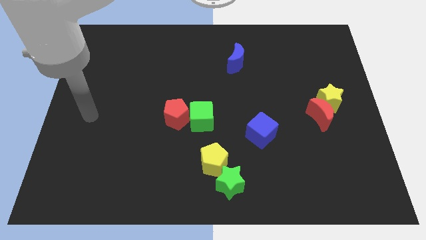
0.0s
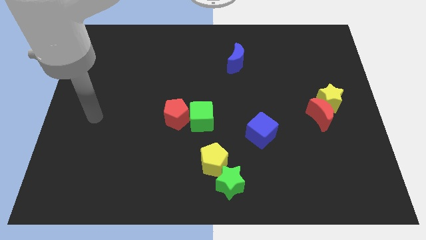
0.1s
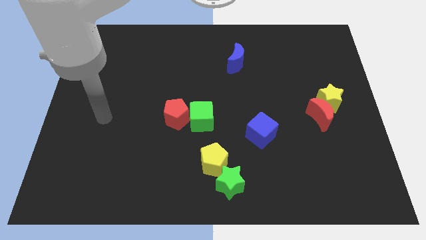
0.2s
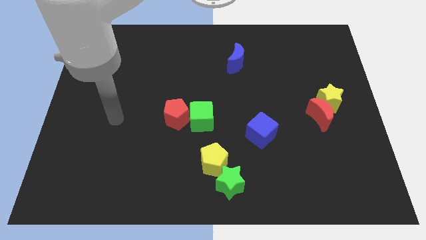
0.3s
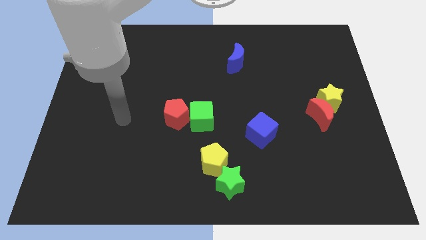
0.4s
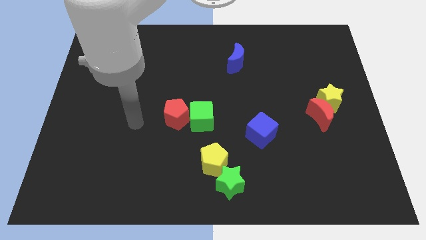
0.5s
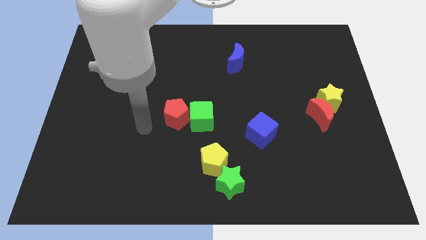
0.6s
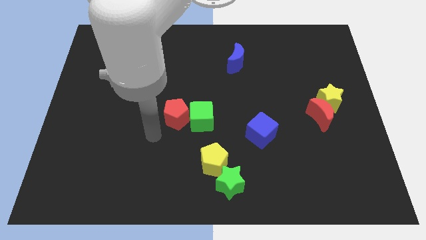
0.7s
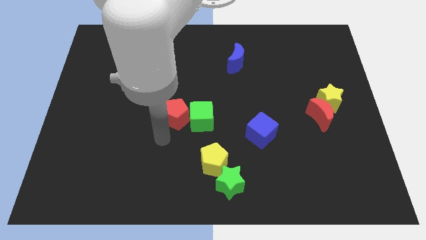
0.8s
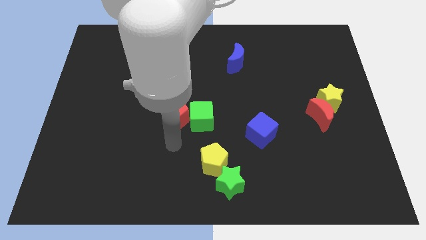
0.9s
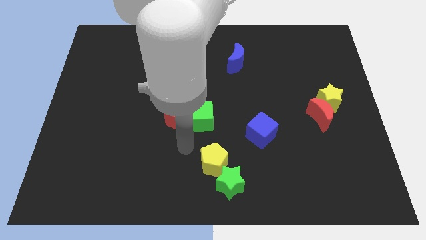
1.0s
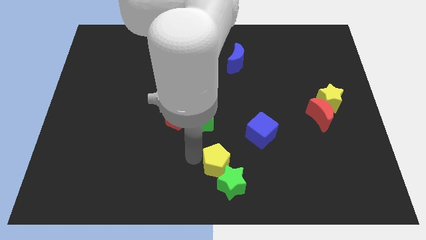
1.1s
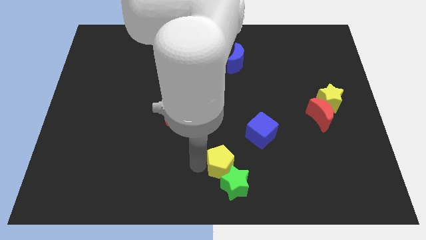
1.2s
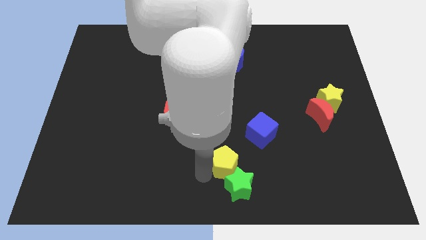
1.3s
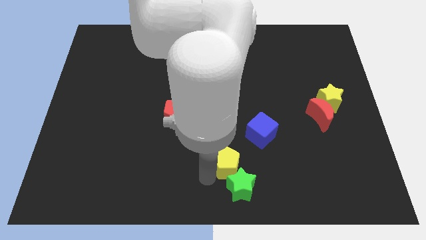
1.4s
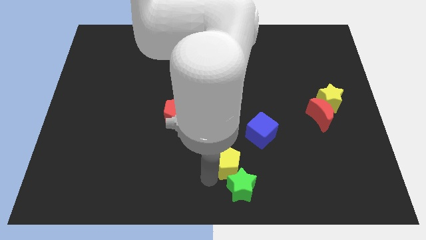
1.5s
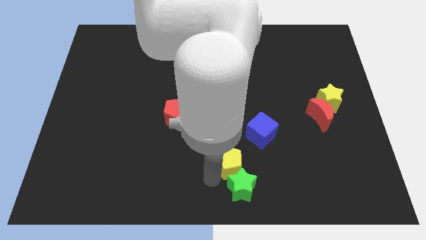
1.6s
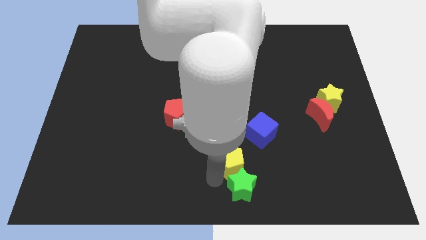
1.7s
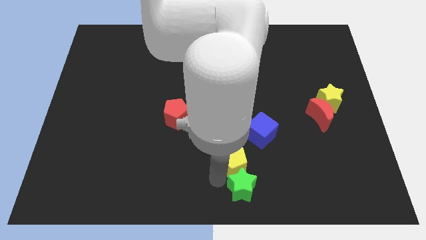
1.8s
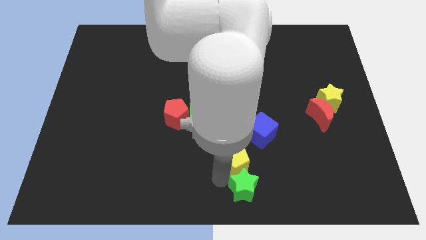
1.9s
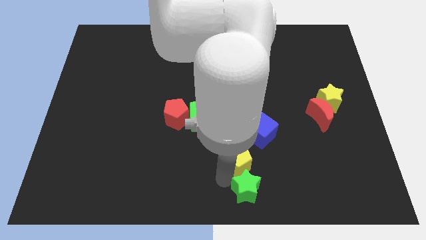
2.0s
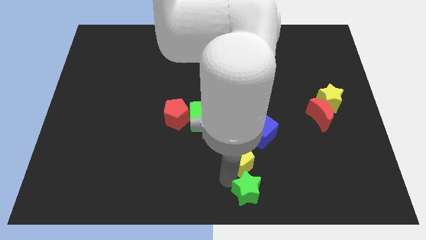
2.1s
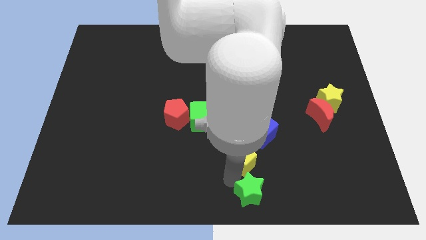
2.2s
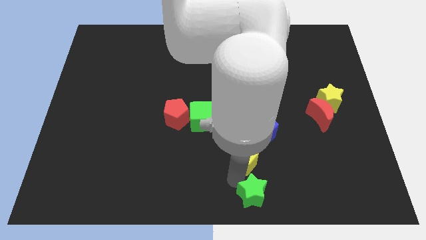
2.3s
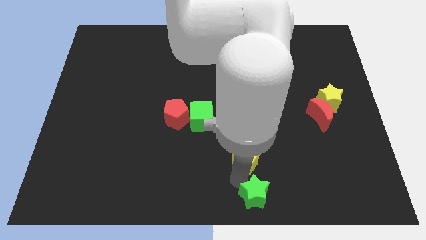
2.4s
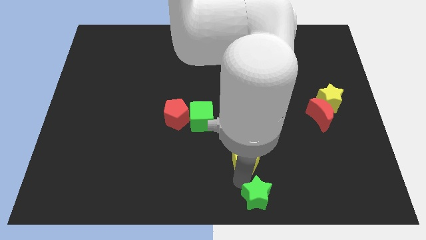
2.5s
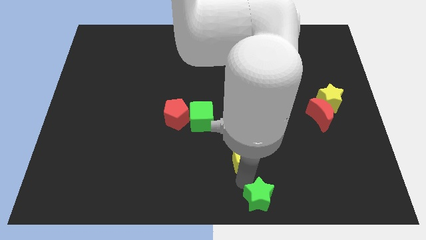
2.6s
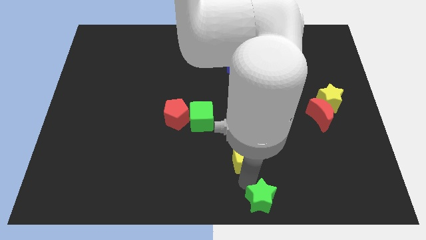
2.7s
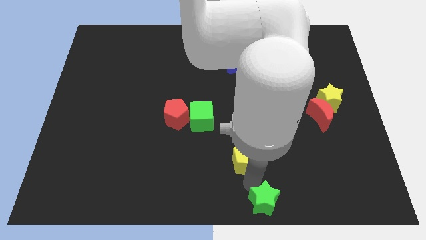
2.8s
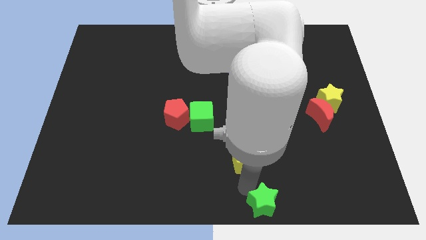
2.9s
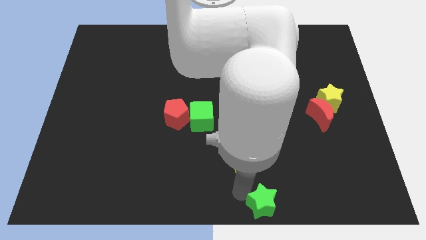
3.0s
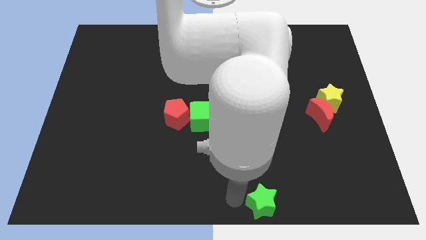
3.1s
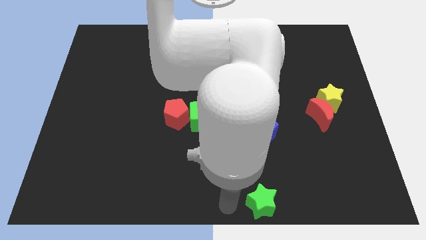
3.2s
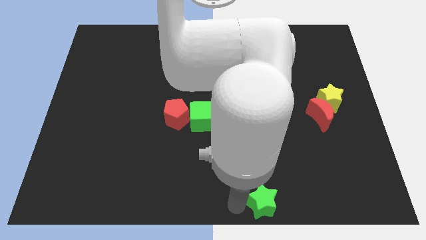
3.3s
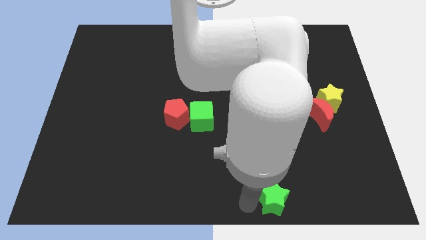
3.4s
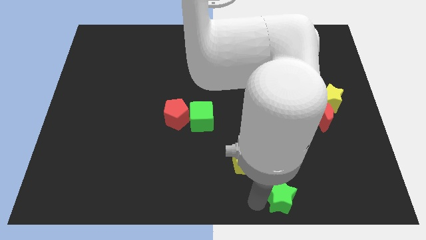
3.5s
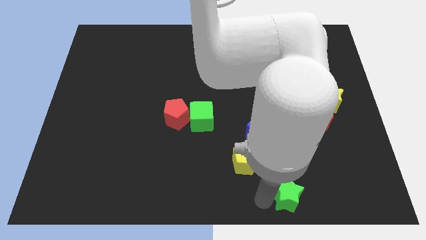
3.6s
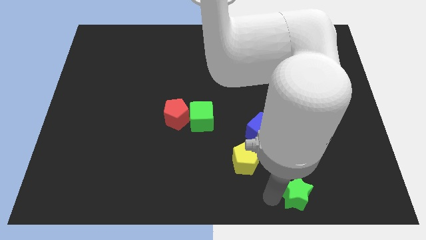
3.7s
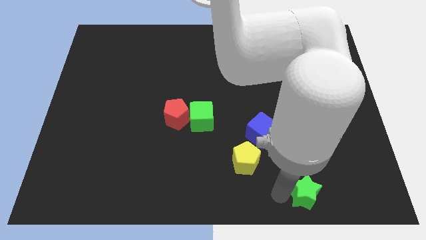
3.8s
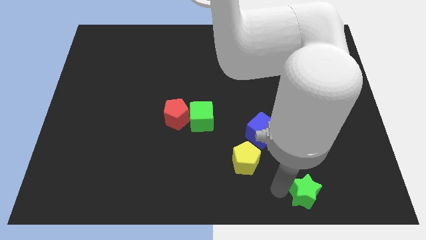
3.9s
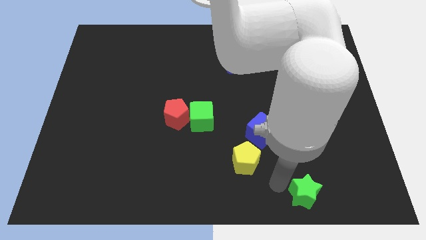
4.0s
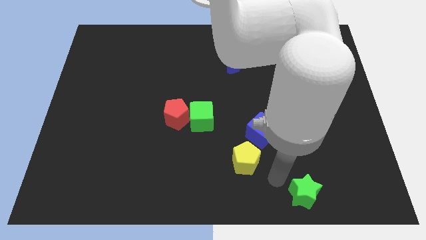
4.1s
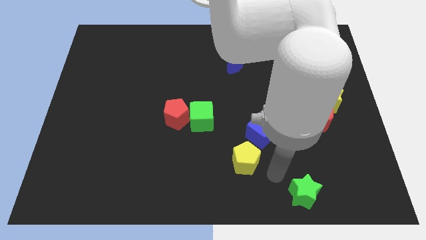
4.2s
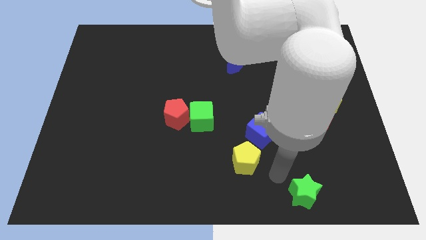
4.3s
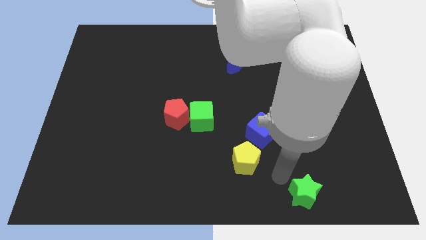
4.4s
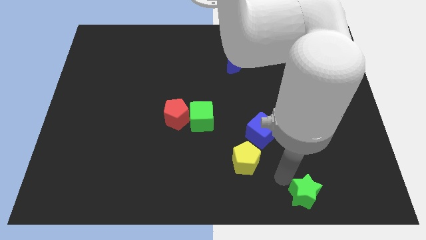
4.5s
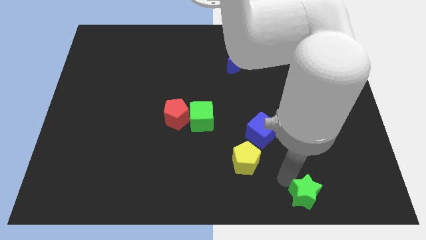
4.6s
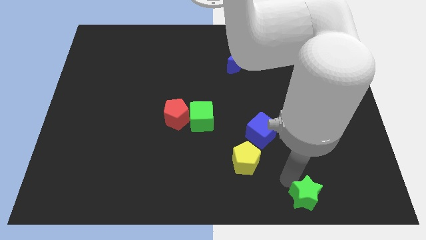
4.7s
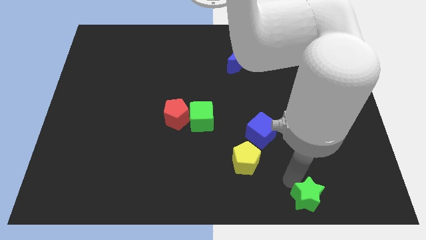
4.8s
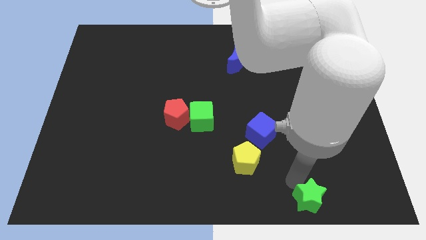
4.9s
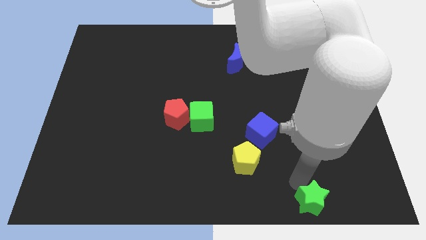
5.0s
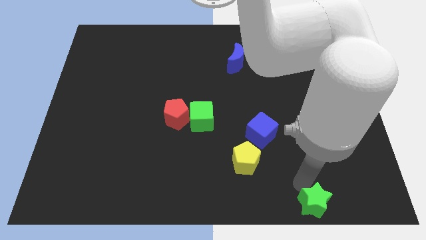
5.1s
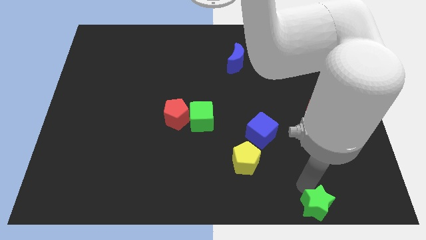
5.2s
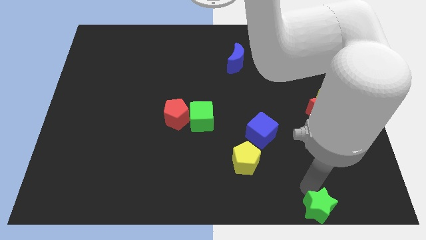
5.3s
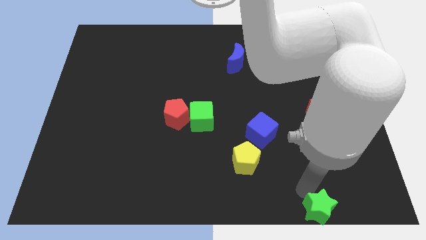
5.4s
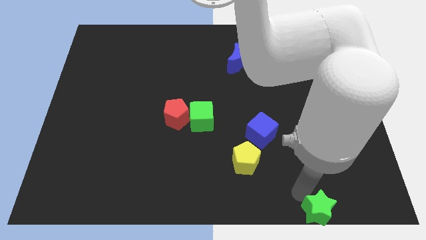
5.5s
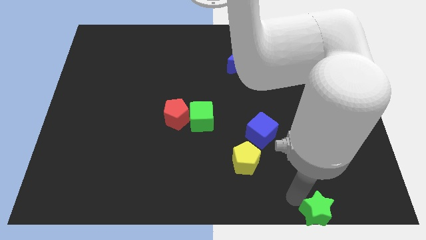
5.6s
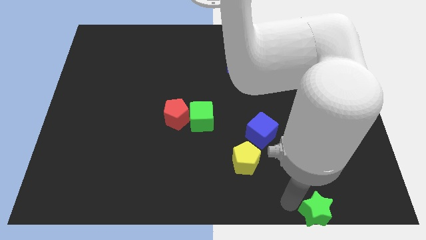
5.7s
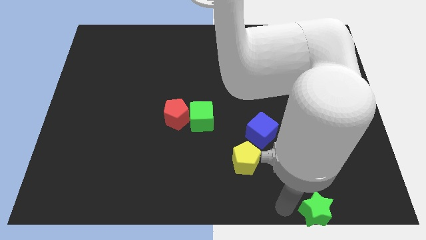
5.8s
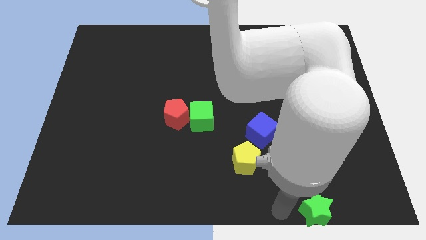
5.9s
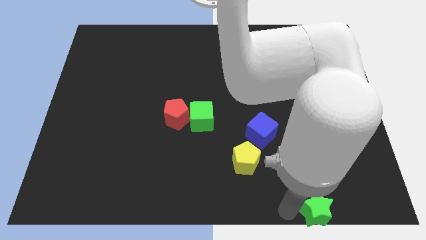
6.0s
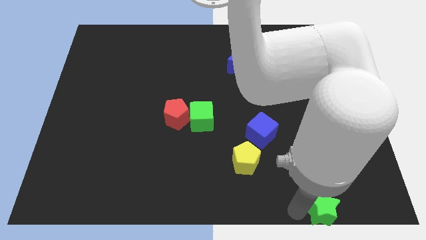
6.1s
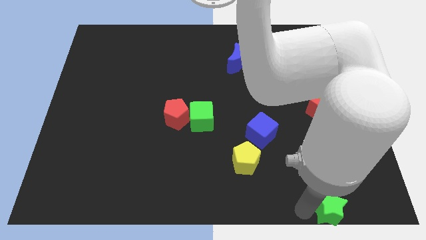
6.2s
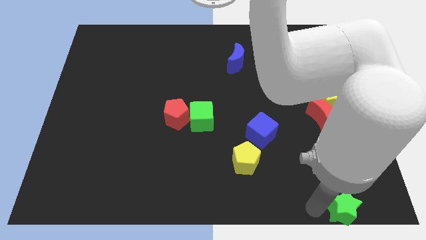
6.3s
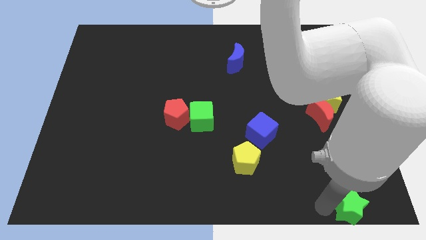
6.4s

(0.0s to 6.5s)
put the green star to the bottom right of the board

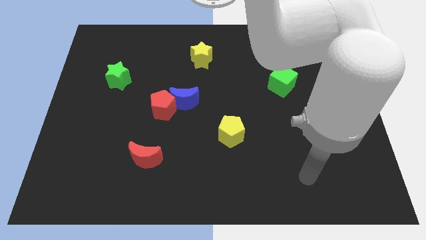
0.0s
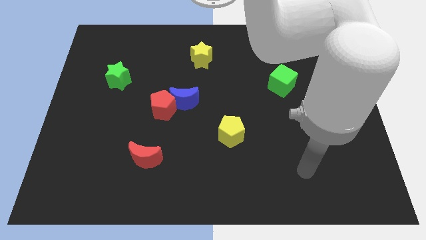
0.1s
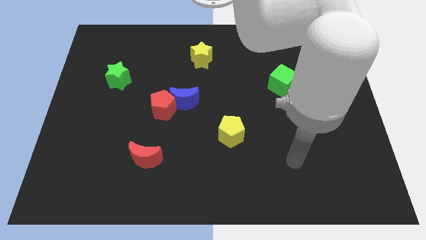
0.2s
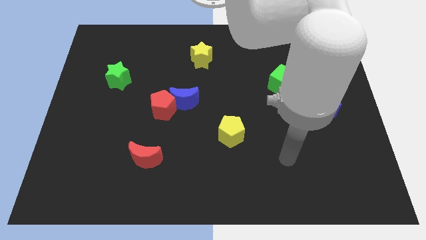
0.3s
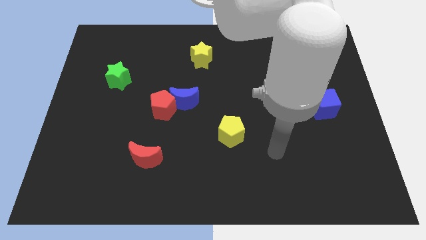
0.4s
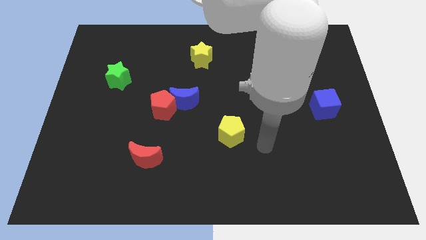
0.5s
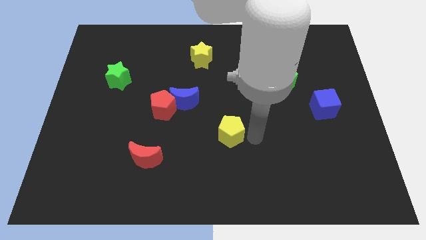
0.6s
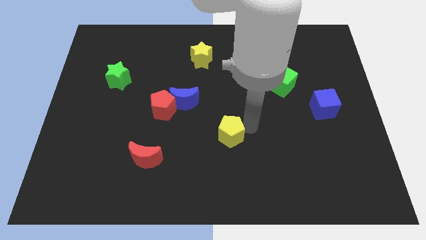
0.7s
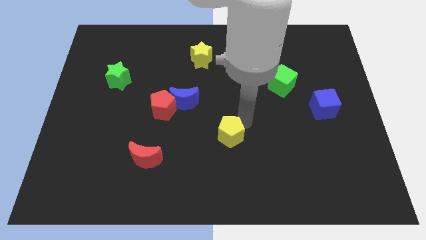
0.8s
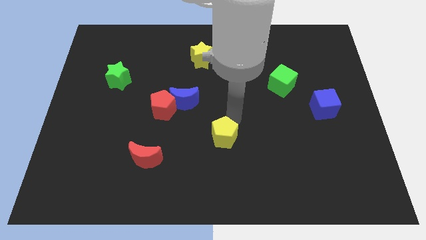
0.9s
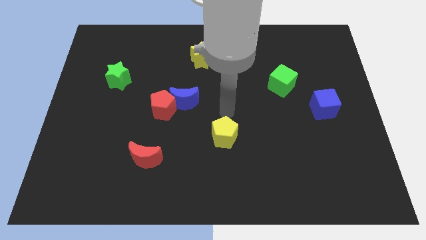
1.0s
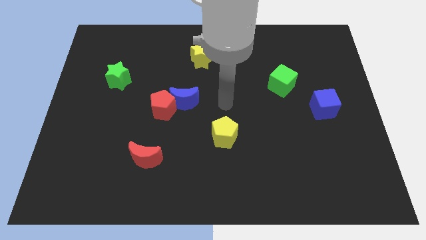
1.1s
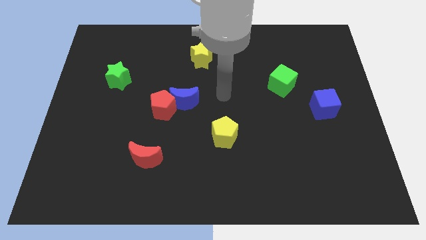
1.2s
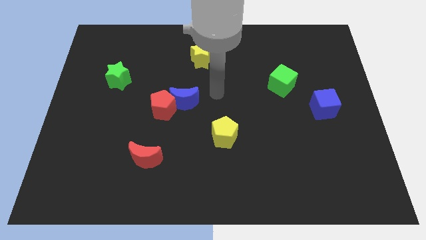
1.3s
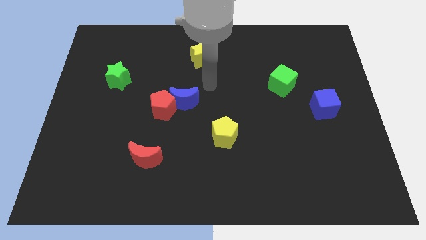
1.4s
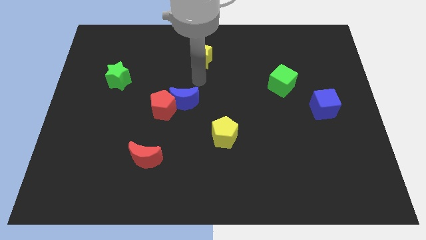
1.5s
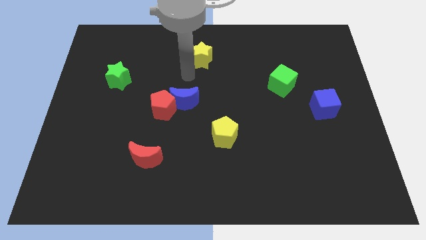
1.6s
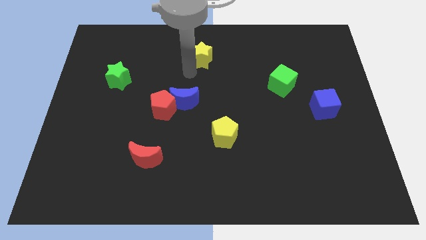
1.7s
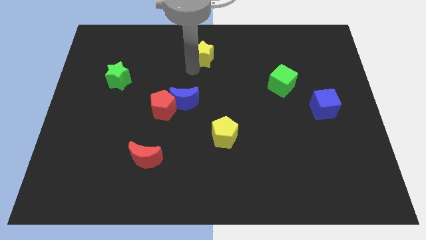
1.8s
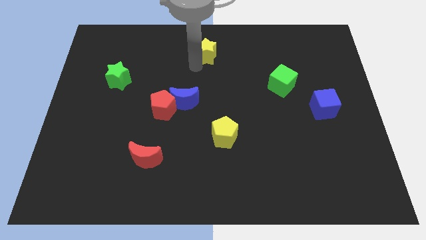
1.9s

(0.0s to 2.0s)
put the yellow star to the towards your base
